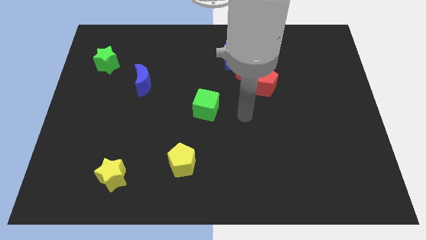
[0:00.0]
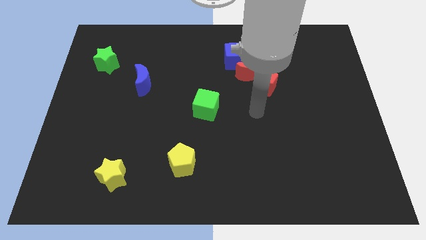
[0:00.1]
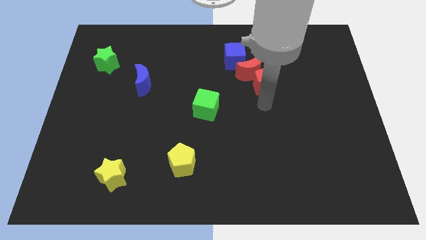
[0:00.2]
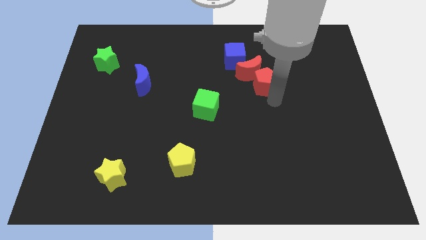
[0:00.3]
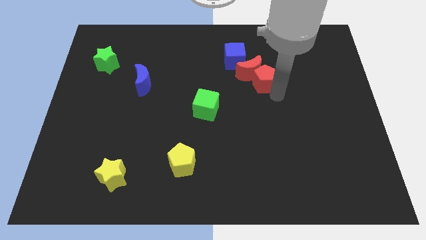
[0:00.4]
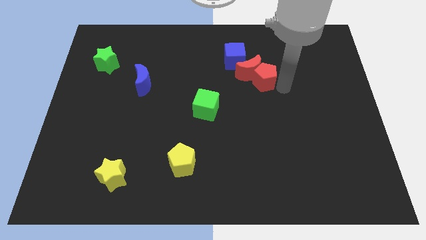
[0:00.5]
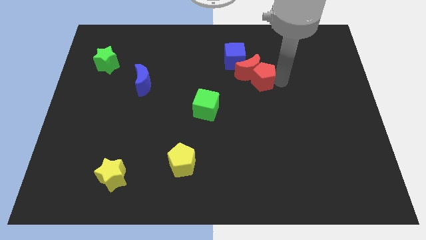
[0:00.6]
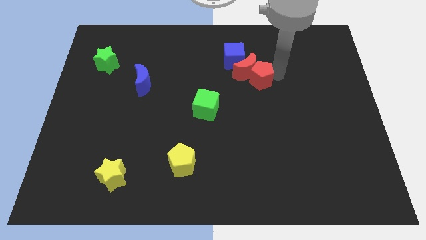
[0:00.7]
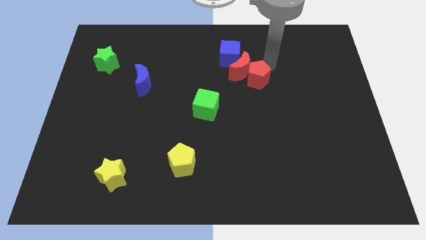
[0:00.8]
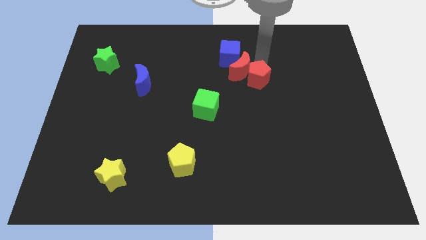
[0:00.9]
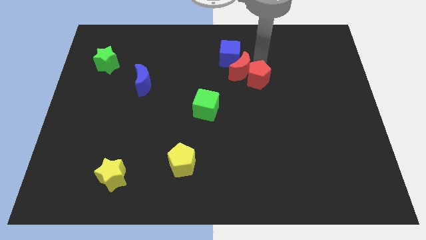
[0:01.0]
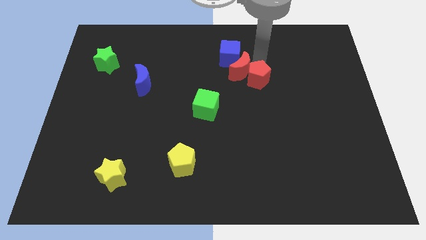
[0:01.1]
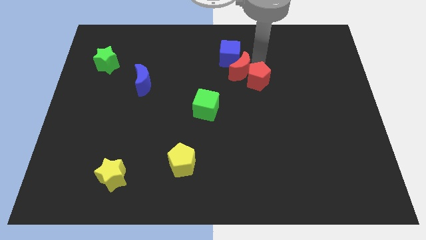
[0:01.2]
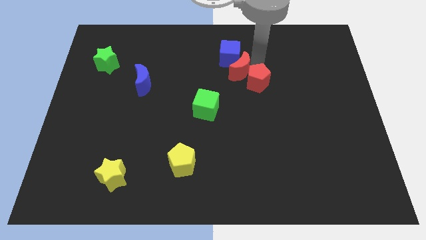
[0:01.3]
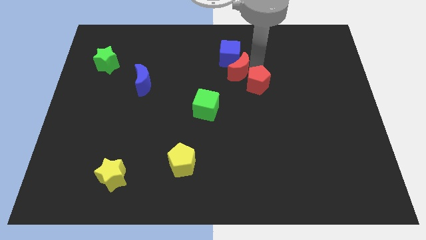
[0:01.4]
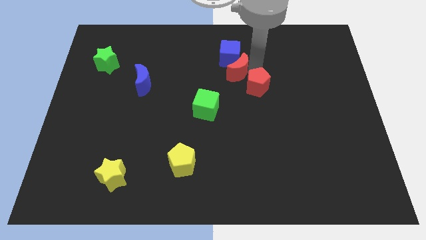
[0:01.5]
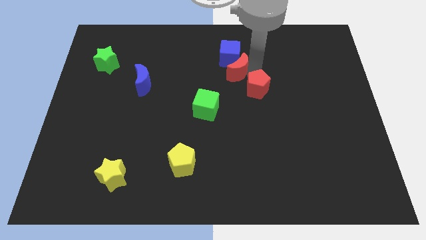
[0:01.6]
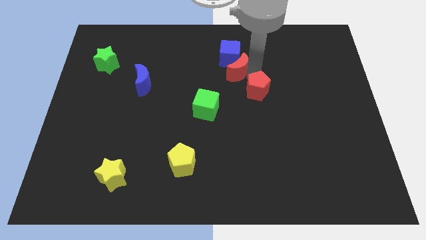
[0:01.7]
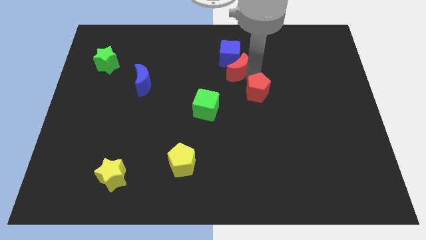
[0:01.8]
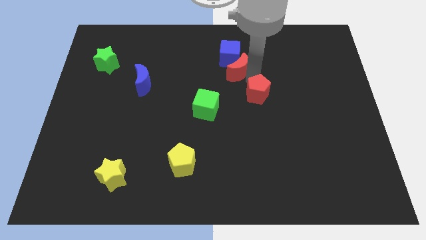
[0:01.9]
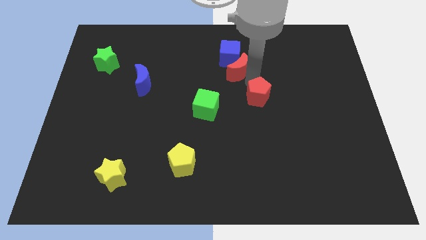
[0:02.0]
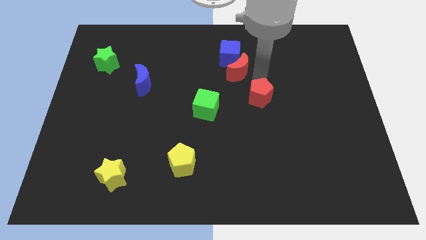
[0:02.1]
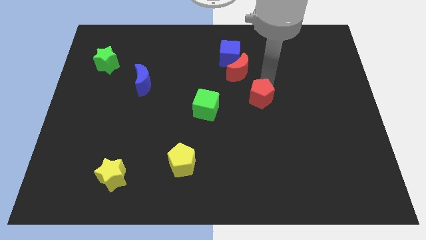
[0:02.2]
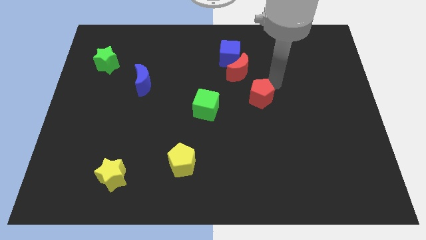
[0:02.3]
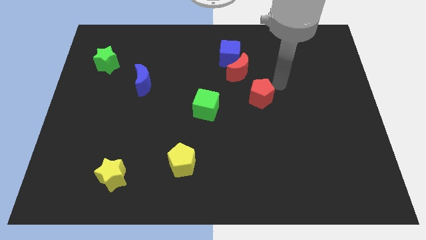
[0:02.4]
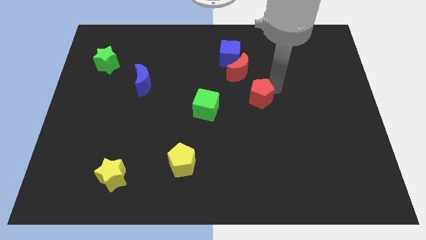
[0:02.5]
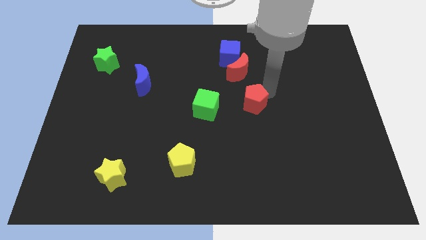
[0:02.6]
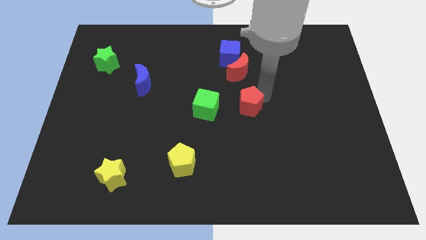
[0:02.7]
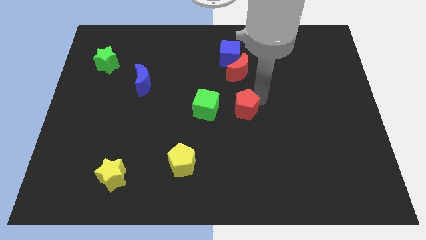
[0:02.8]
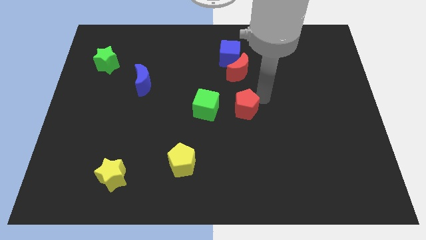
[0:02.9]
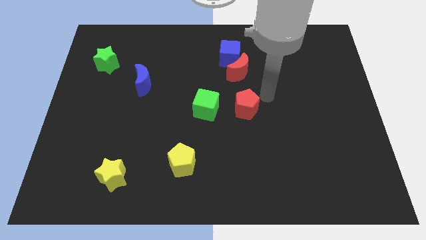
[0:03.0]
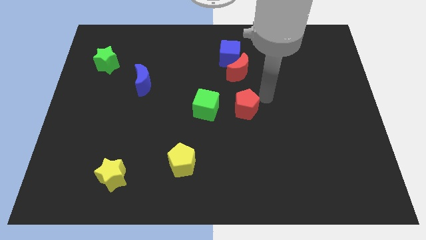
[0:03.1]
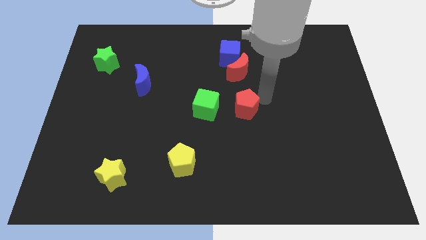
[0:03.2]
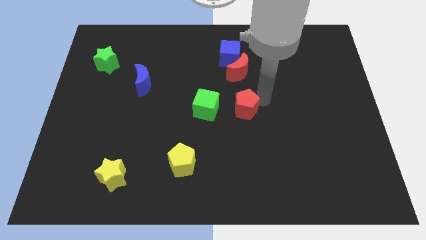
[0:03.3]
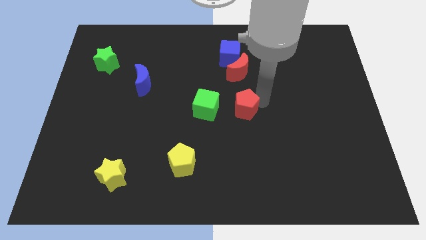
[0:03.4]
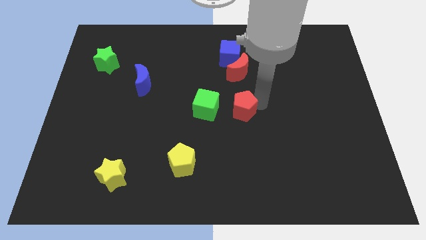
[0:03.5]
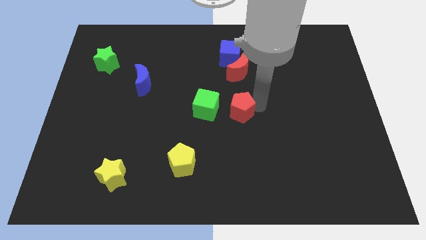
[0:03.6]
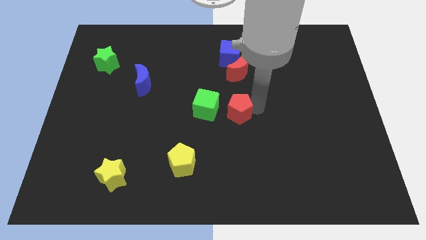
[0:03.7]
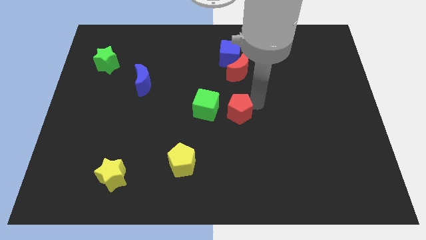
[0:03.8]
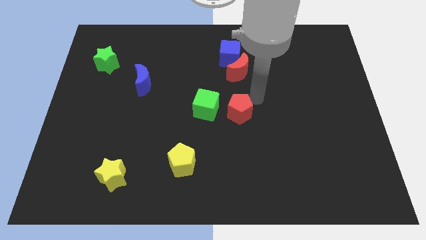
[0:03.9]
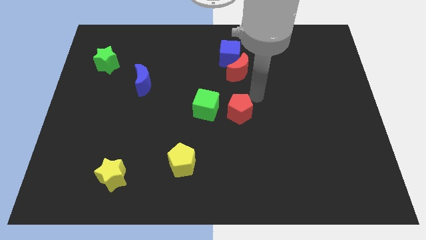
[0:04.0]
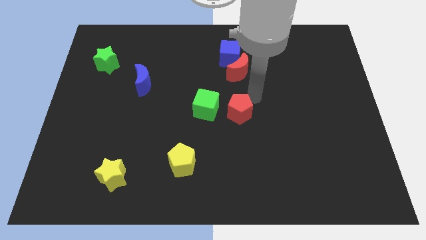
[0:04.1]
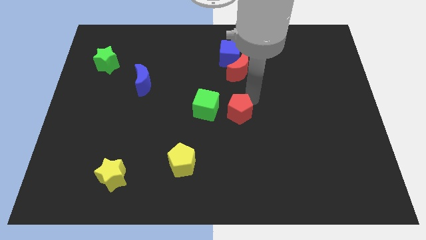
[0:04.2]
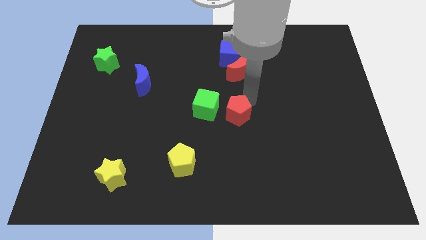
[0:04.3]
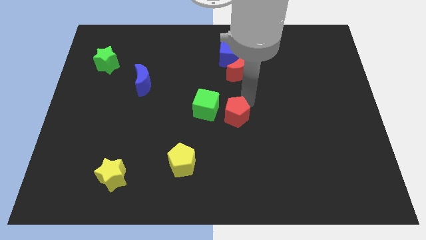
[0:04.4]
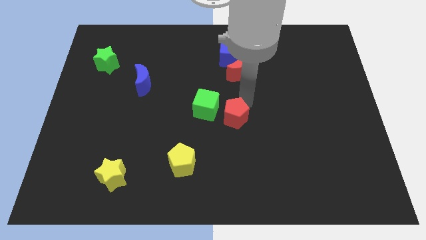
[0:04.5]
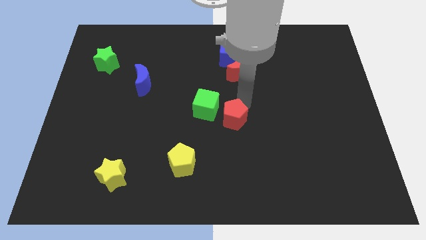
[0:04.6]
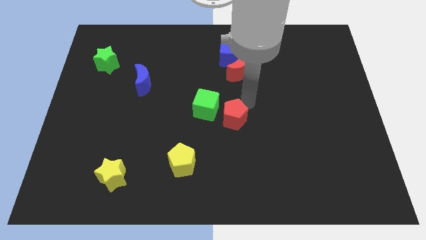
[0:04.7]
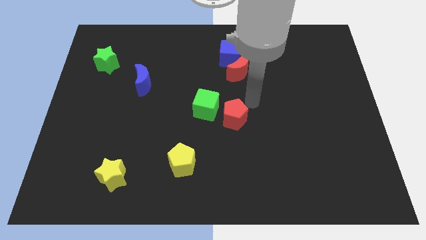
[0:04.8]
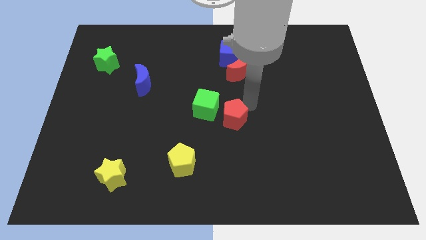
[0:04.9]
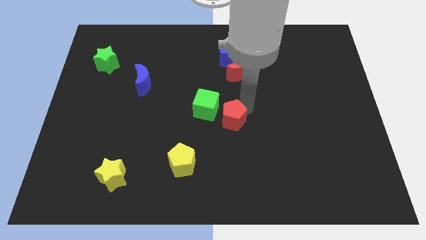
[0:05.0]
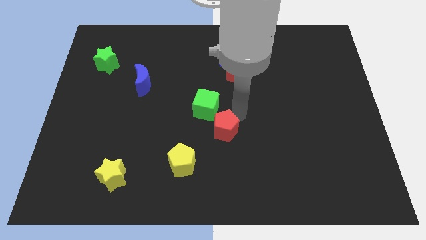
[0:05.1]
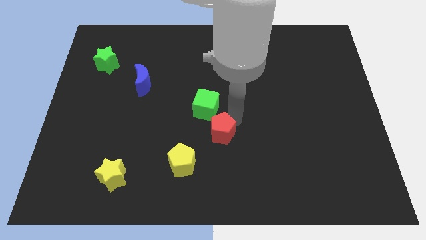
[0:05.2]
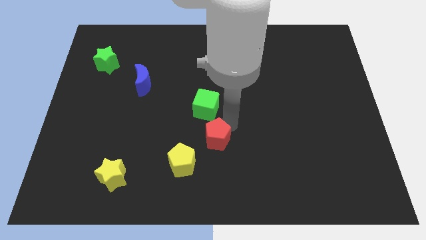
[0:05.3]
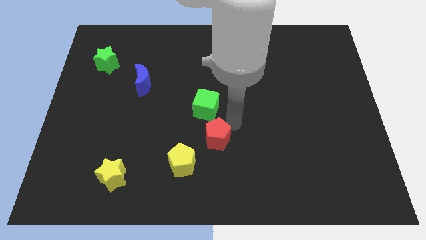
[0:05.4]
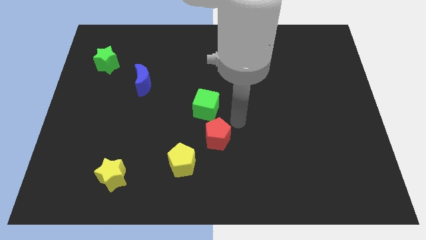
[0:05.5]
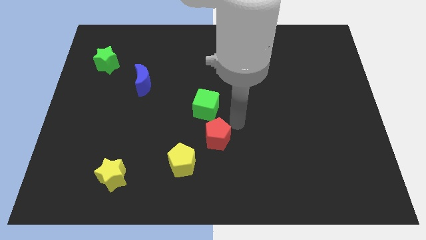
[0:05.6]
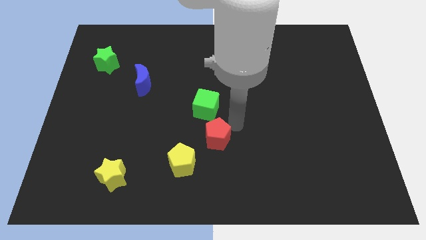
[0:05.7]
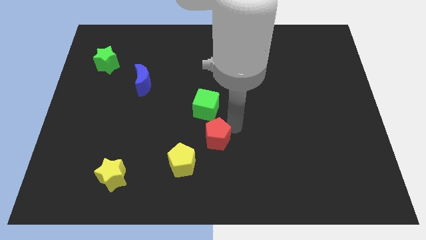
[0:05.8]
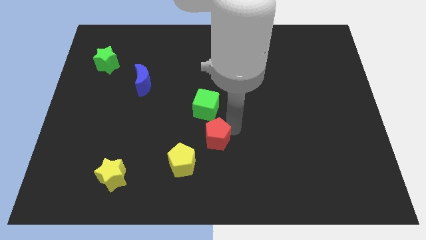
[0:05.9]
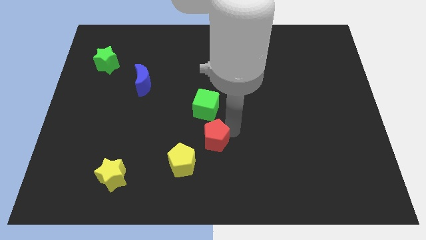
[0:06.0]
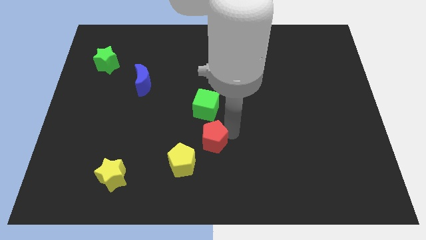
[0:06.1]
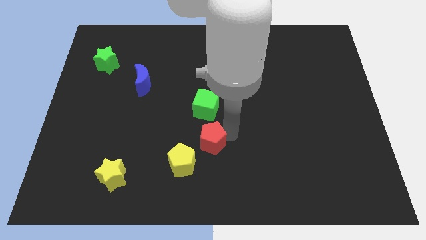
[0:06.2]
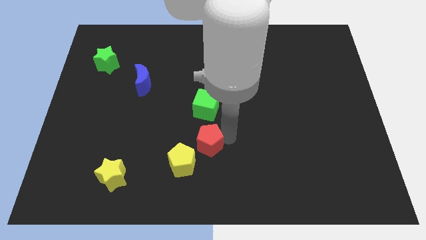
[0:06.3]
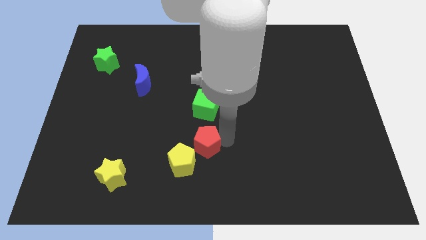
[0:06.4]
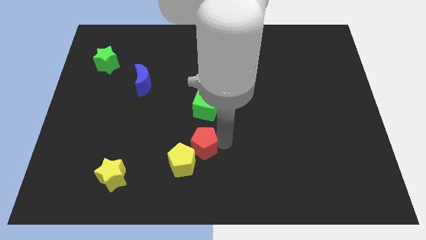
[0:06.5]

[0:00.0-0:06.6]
push the red pentagon to the yellow pentagon
